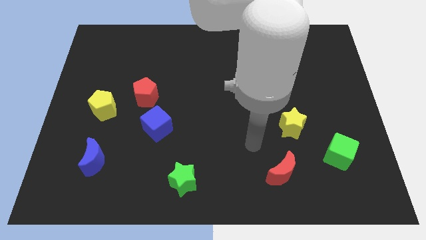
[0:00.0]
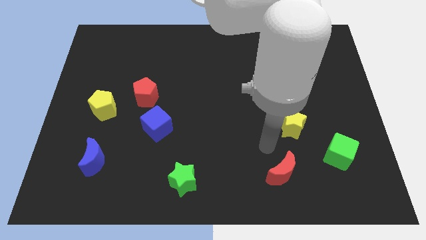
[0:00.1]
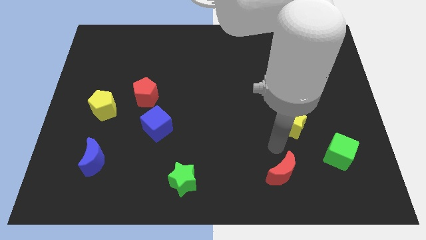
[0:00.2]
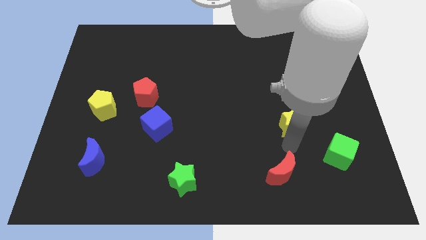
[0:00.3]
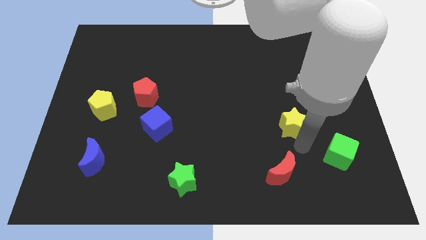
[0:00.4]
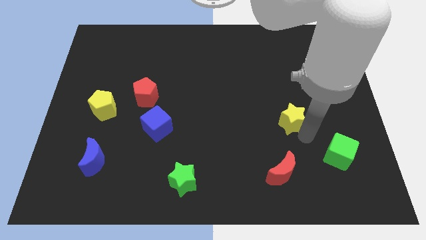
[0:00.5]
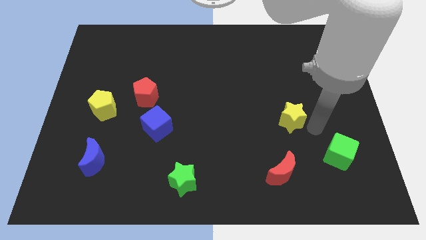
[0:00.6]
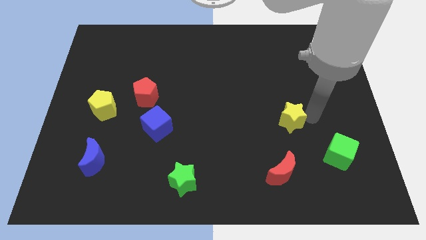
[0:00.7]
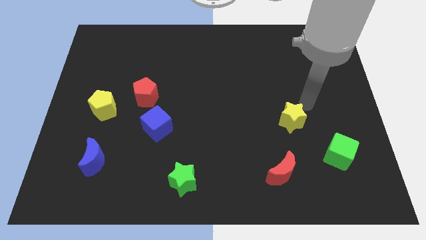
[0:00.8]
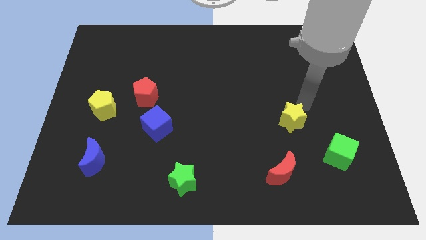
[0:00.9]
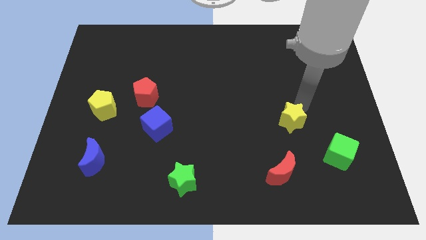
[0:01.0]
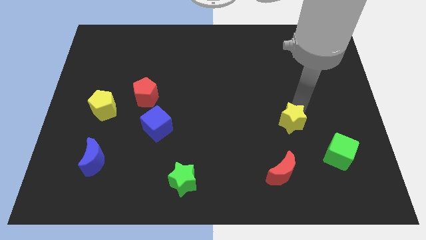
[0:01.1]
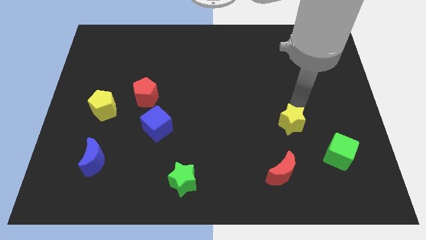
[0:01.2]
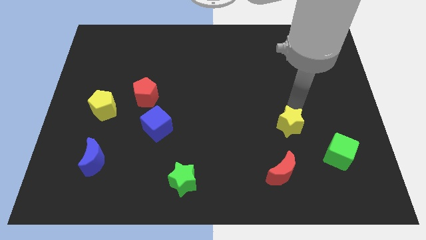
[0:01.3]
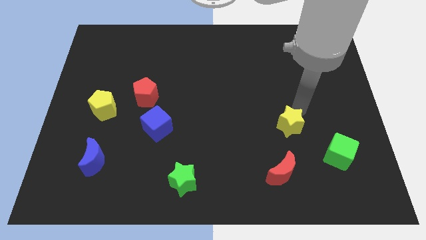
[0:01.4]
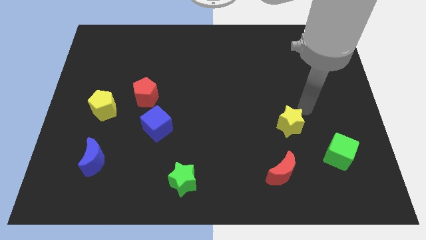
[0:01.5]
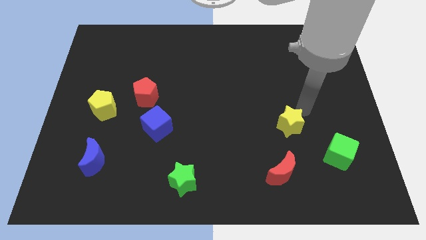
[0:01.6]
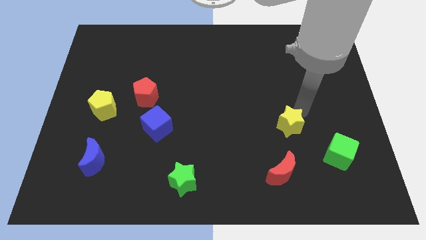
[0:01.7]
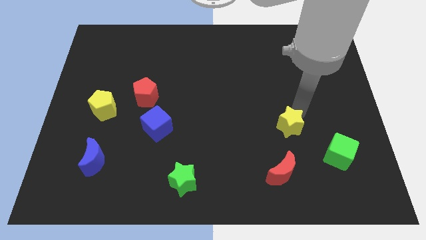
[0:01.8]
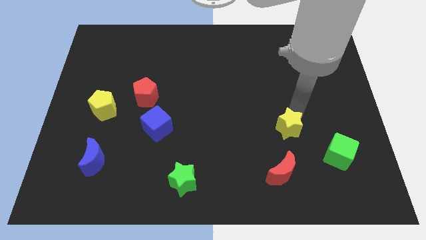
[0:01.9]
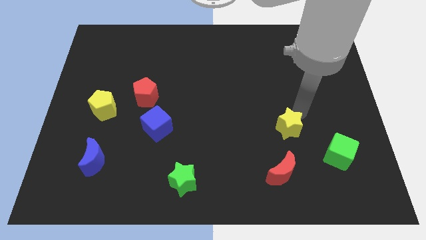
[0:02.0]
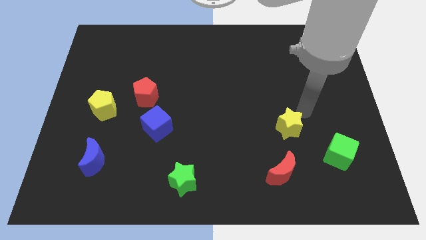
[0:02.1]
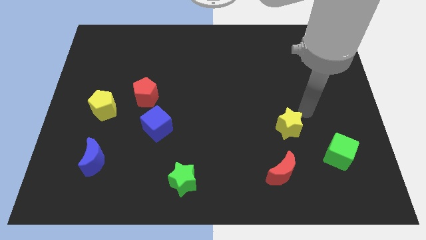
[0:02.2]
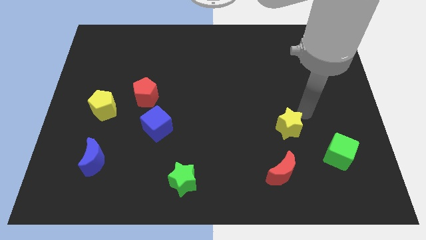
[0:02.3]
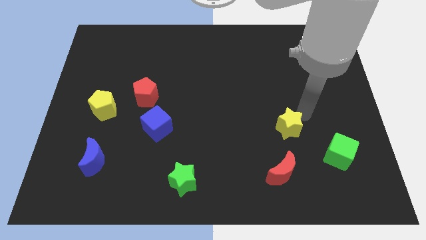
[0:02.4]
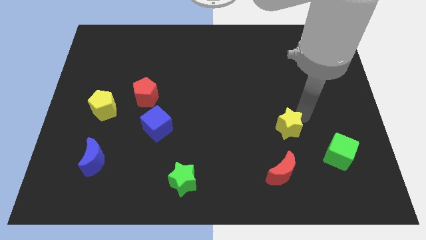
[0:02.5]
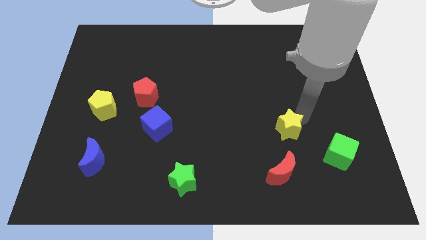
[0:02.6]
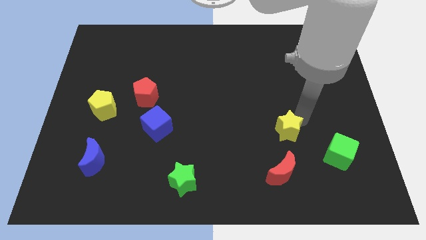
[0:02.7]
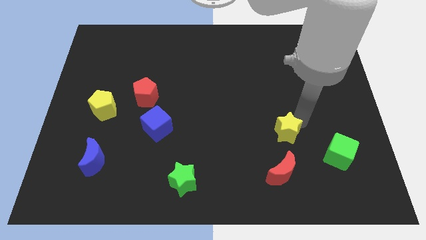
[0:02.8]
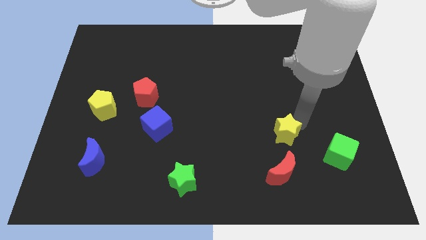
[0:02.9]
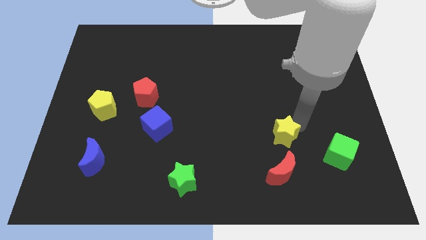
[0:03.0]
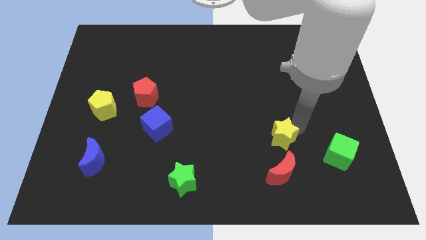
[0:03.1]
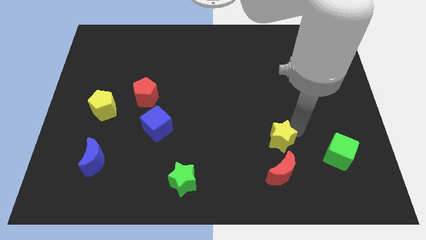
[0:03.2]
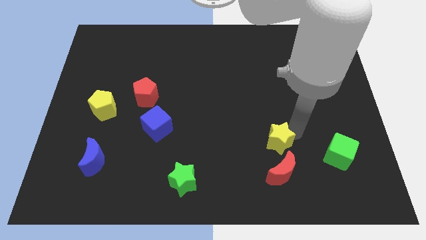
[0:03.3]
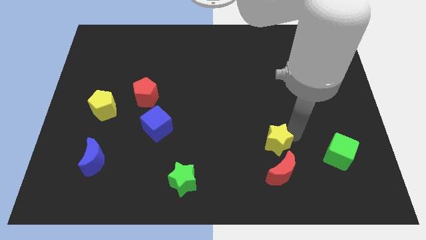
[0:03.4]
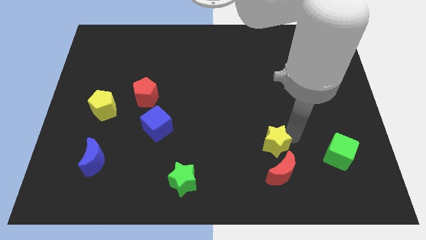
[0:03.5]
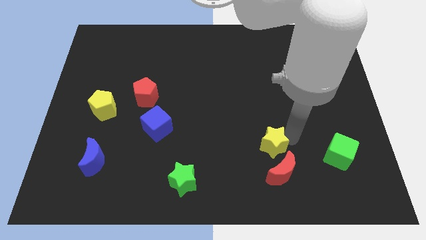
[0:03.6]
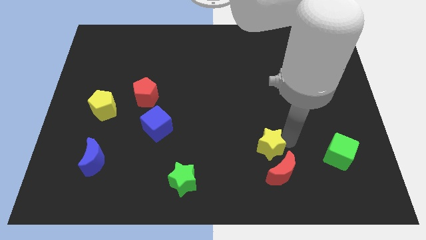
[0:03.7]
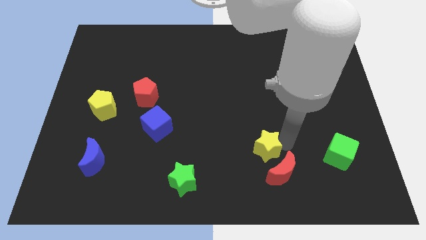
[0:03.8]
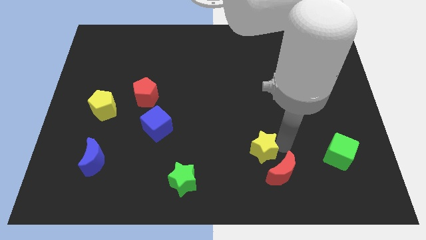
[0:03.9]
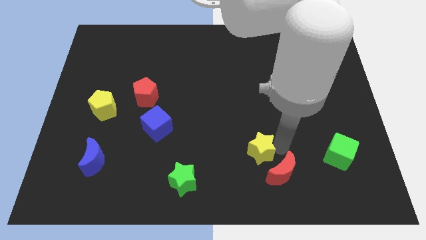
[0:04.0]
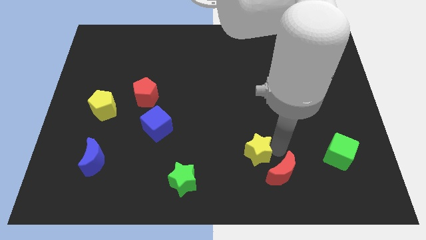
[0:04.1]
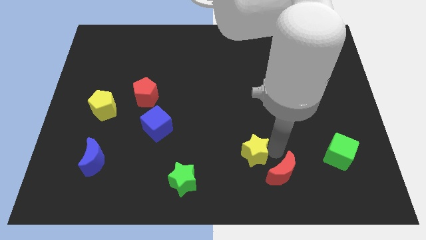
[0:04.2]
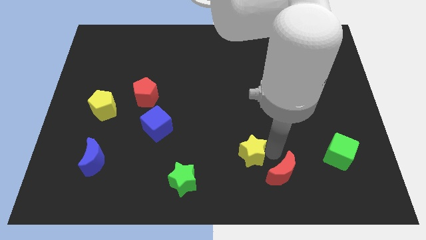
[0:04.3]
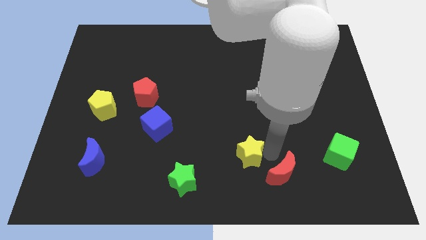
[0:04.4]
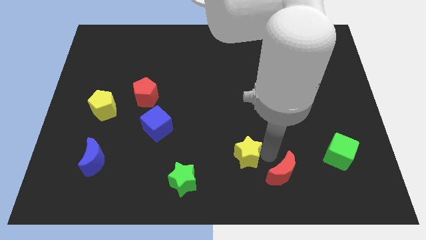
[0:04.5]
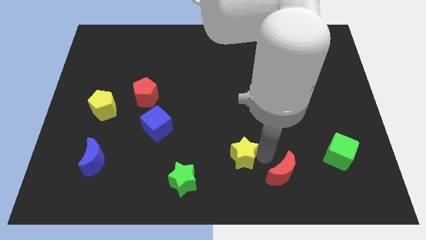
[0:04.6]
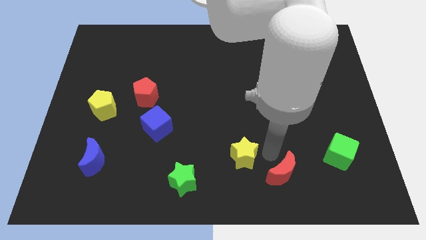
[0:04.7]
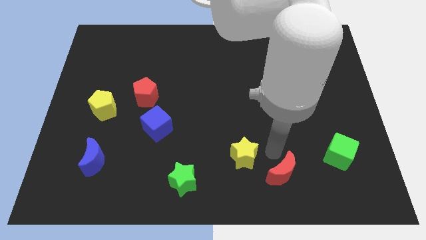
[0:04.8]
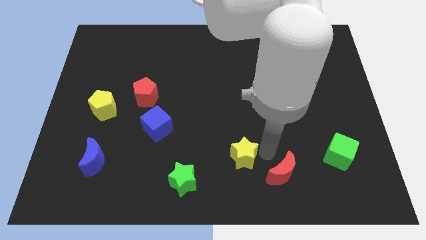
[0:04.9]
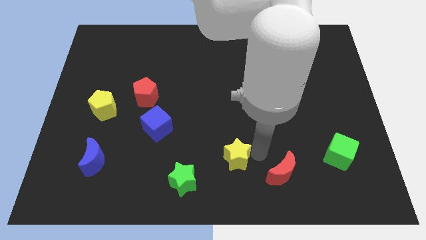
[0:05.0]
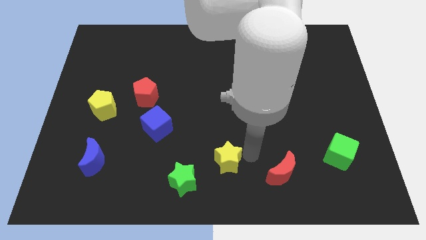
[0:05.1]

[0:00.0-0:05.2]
move the yellow star to the top right side of the green star

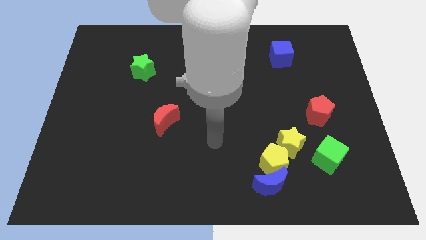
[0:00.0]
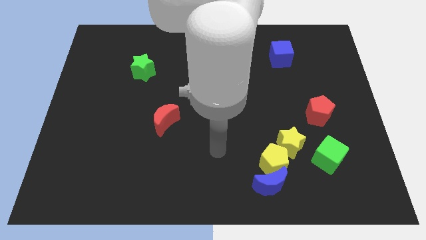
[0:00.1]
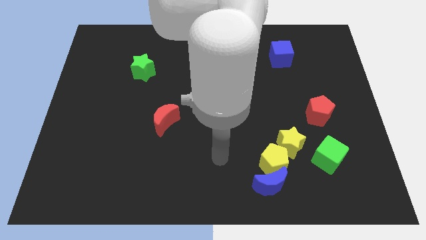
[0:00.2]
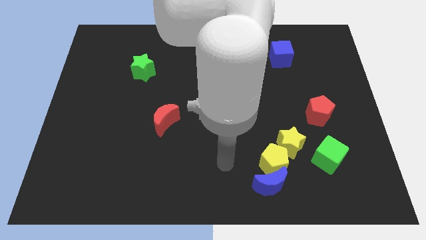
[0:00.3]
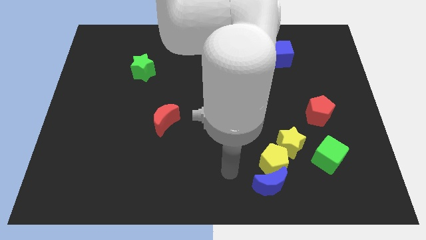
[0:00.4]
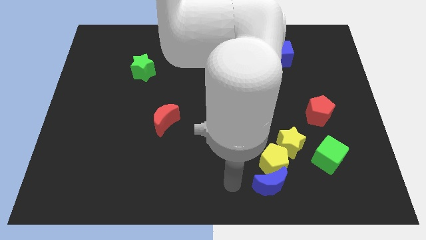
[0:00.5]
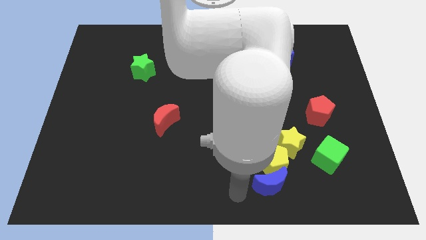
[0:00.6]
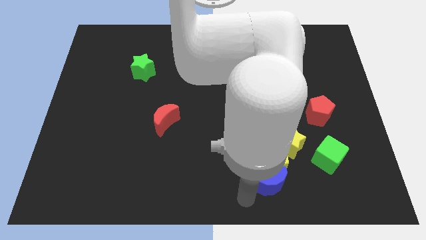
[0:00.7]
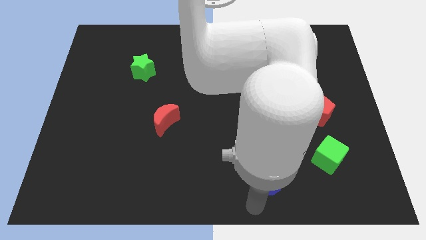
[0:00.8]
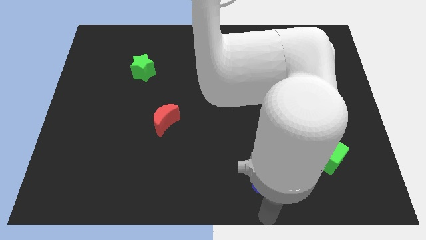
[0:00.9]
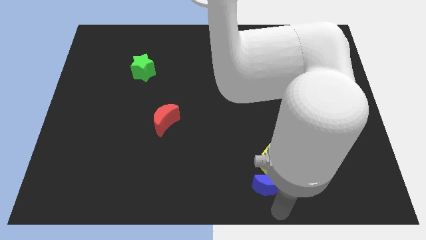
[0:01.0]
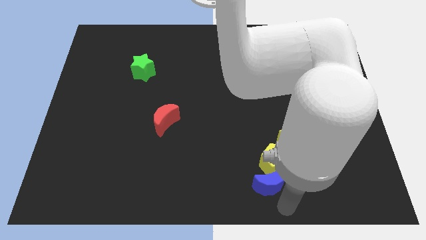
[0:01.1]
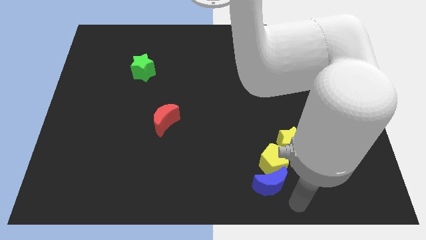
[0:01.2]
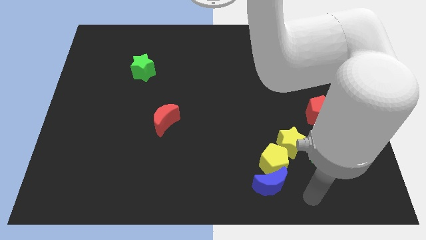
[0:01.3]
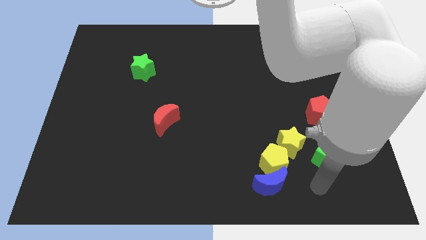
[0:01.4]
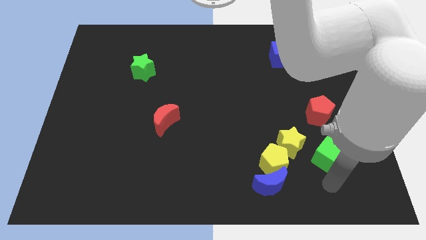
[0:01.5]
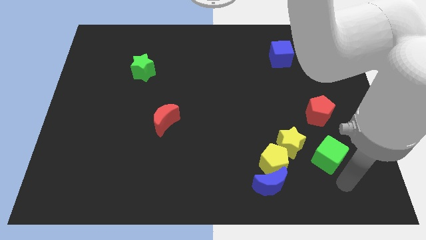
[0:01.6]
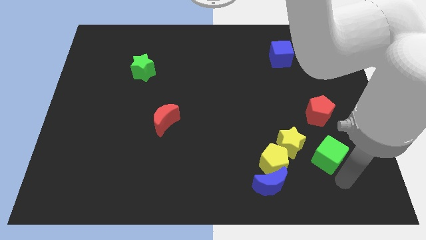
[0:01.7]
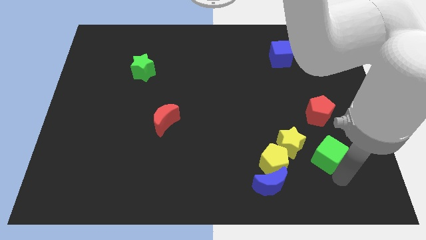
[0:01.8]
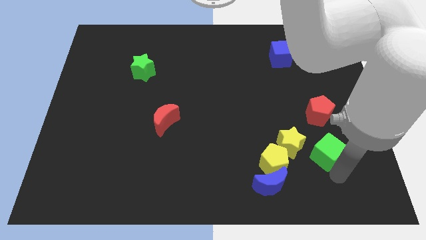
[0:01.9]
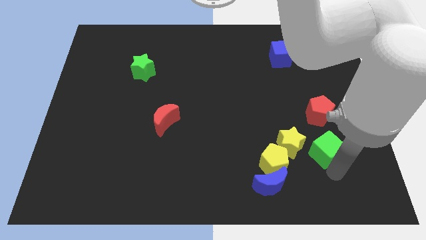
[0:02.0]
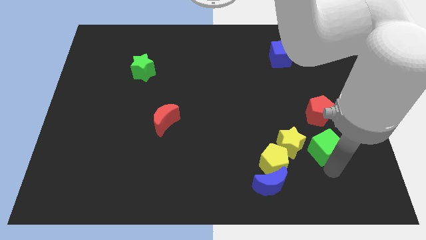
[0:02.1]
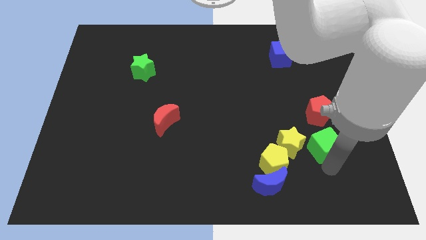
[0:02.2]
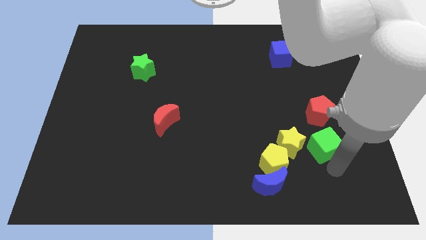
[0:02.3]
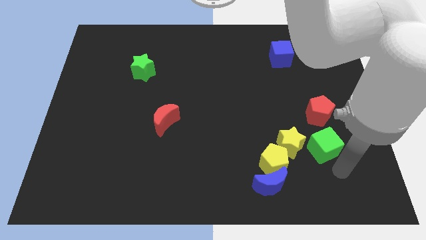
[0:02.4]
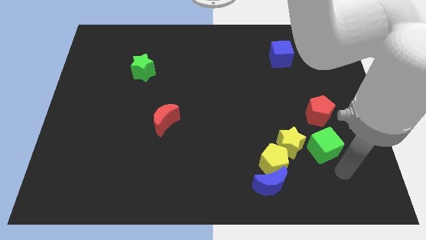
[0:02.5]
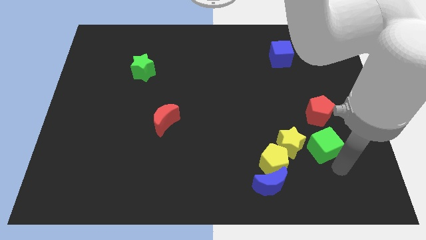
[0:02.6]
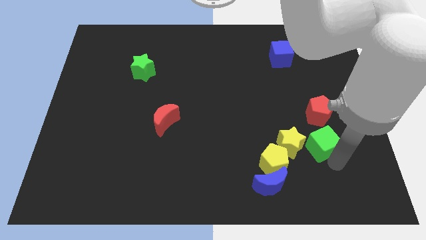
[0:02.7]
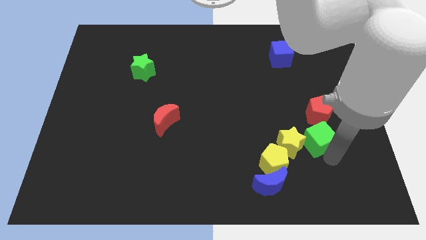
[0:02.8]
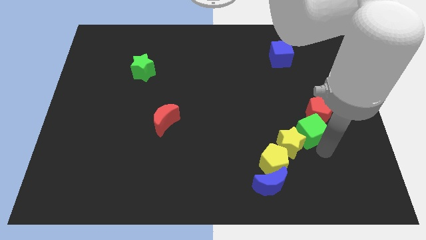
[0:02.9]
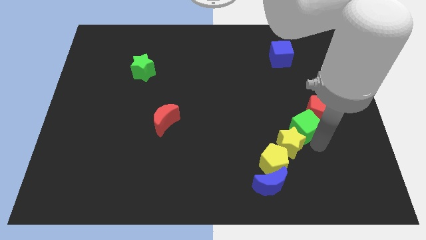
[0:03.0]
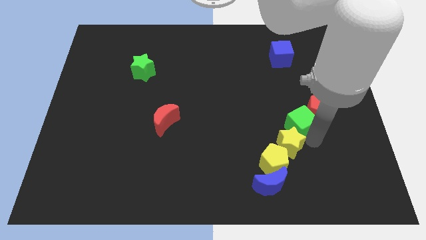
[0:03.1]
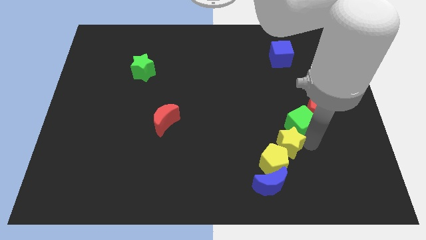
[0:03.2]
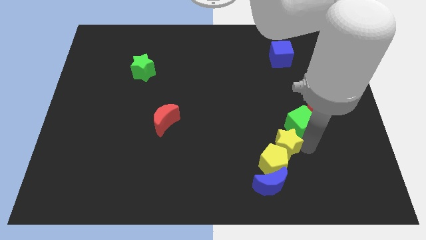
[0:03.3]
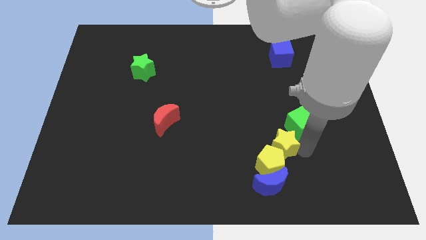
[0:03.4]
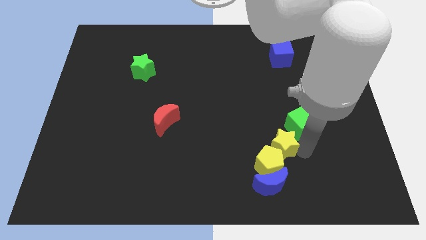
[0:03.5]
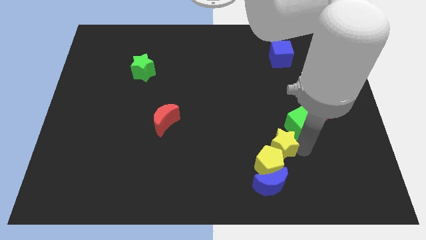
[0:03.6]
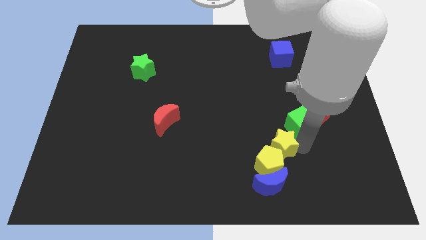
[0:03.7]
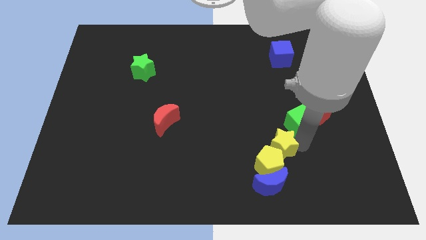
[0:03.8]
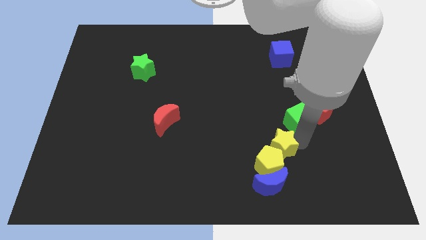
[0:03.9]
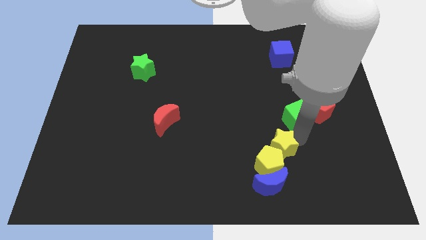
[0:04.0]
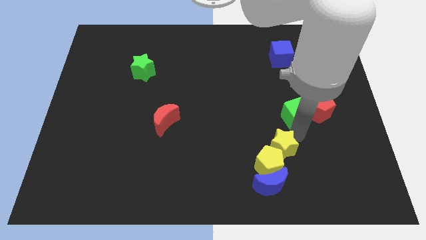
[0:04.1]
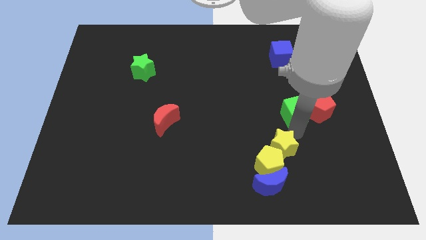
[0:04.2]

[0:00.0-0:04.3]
move the green cube to the top left of the red pentagon
